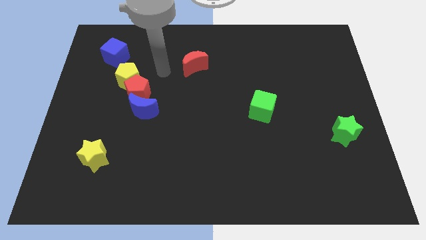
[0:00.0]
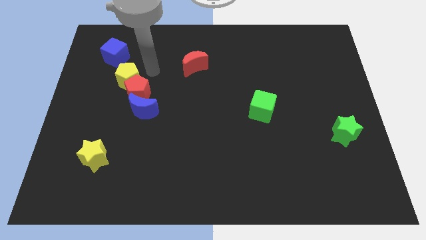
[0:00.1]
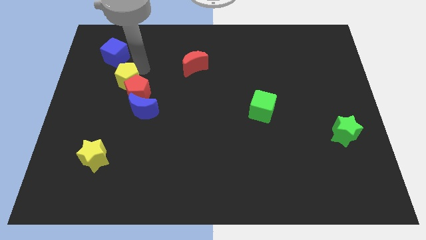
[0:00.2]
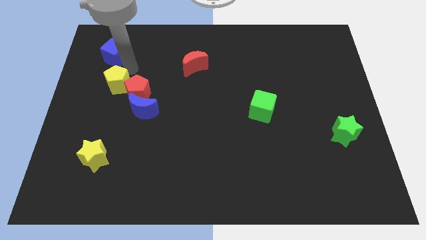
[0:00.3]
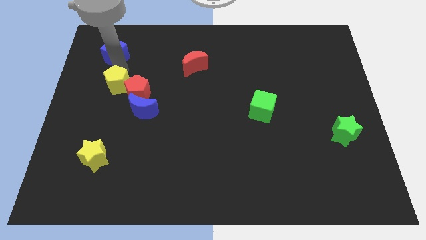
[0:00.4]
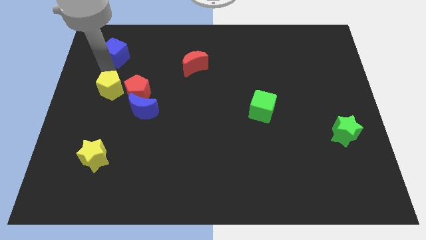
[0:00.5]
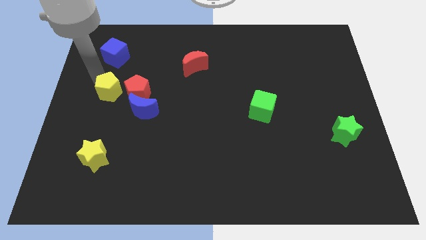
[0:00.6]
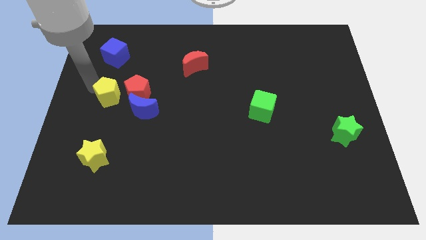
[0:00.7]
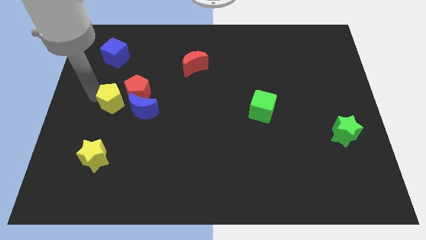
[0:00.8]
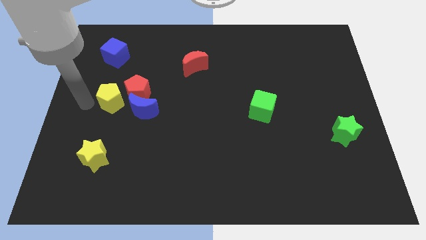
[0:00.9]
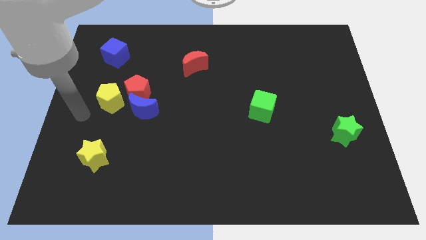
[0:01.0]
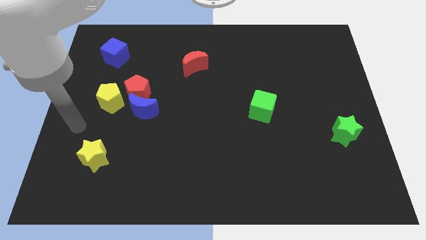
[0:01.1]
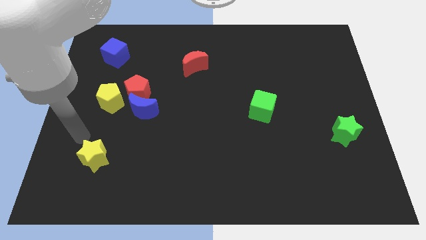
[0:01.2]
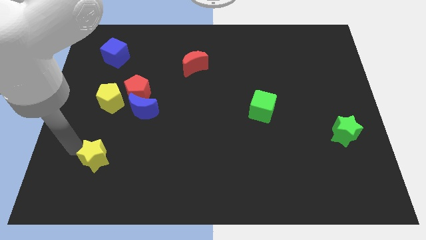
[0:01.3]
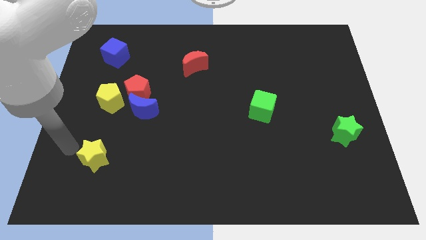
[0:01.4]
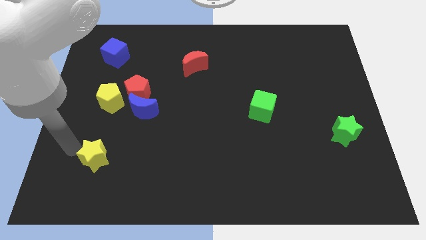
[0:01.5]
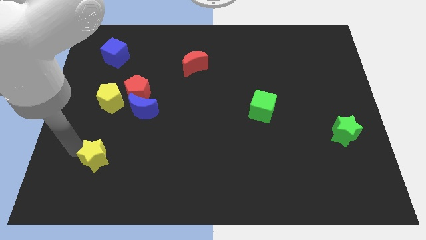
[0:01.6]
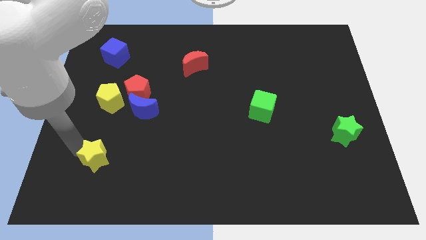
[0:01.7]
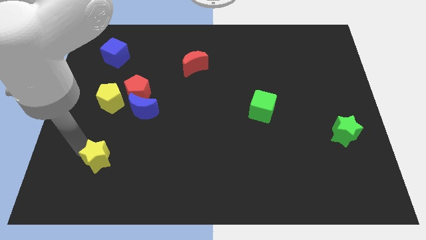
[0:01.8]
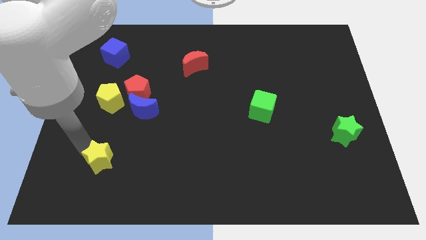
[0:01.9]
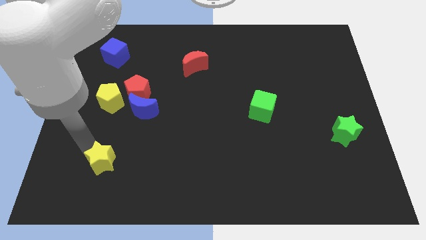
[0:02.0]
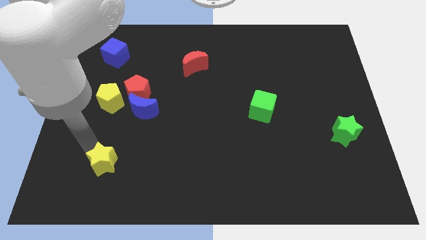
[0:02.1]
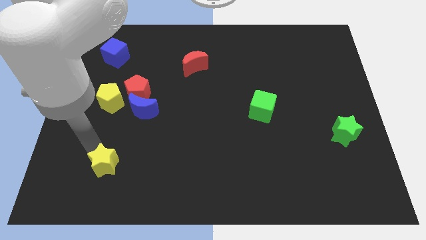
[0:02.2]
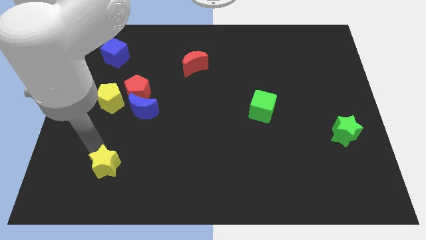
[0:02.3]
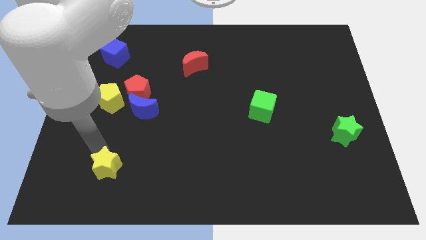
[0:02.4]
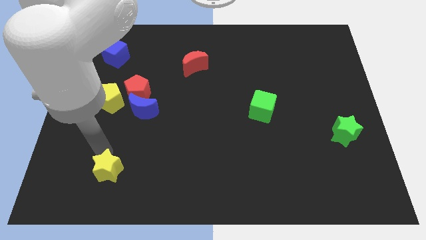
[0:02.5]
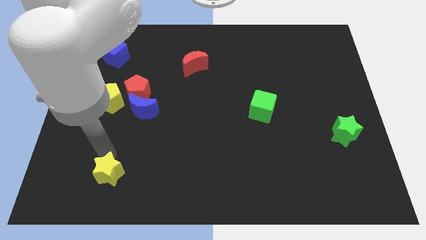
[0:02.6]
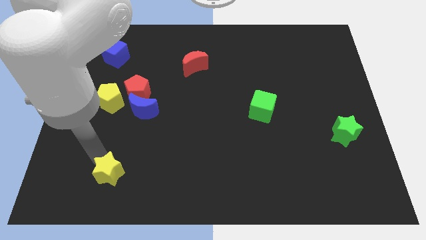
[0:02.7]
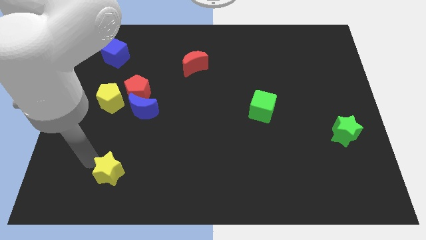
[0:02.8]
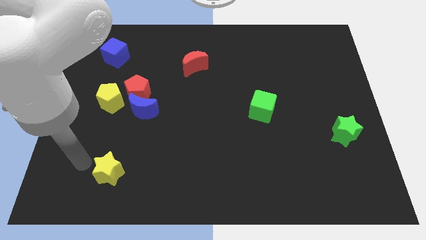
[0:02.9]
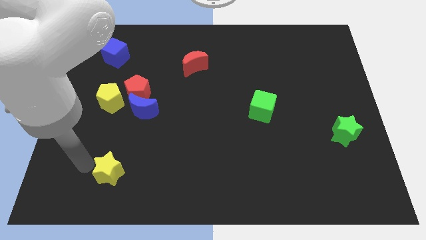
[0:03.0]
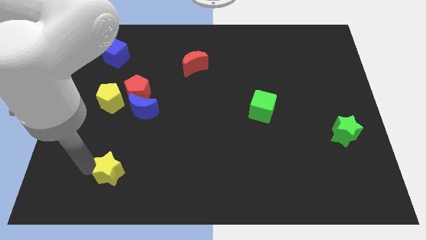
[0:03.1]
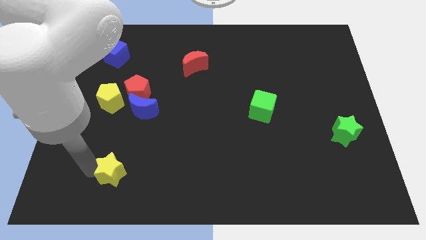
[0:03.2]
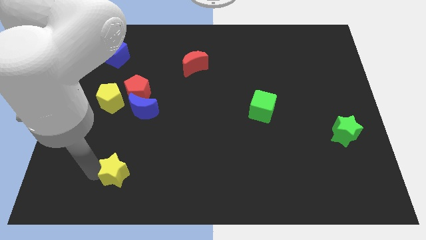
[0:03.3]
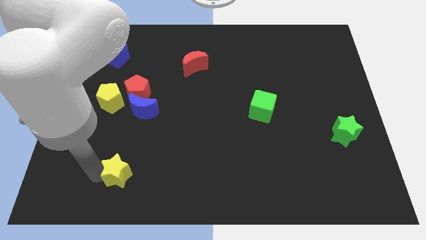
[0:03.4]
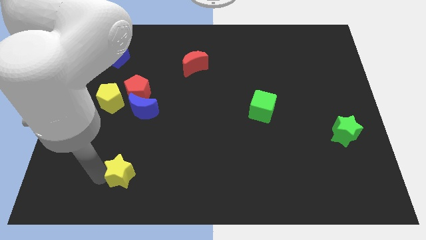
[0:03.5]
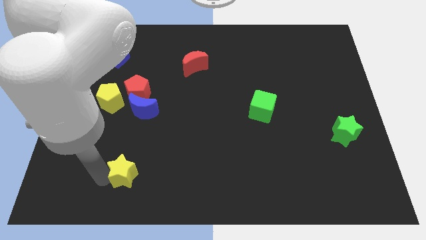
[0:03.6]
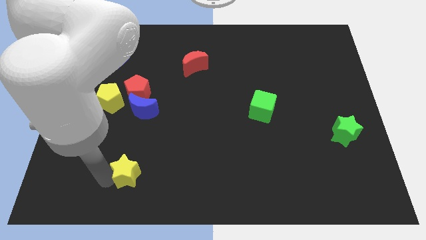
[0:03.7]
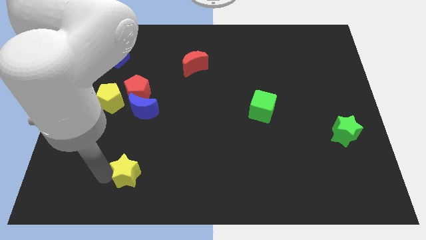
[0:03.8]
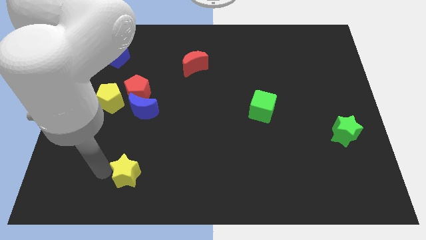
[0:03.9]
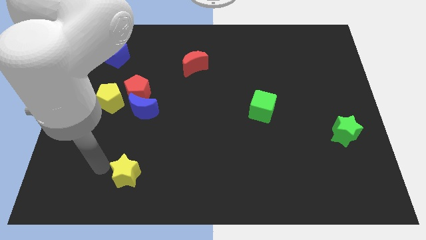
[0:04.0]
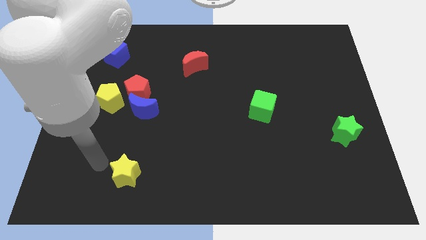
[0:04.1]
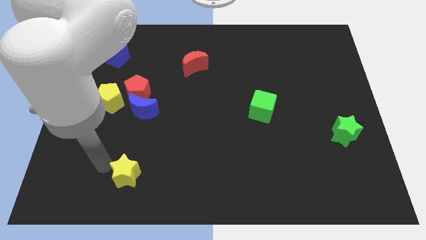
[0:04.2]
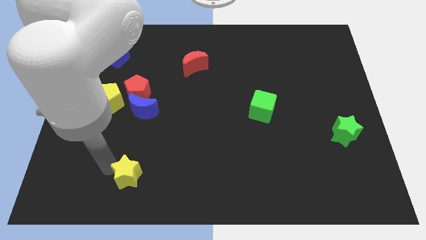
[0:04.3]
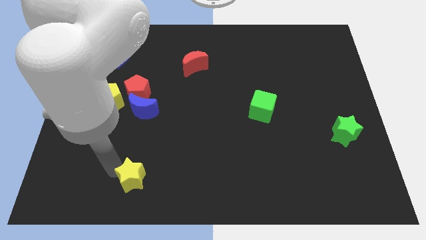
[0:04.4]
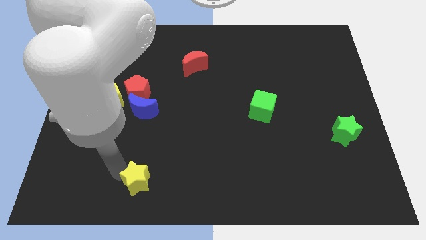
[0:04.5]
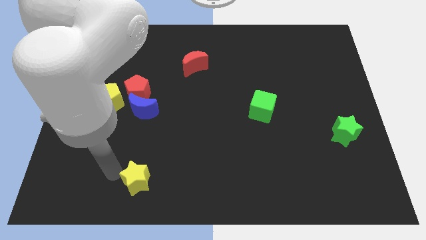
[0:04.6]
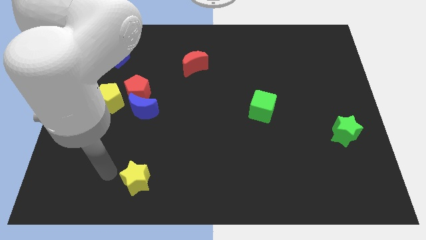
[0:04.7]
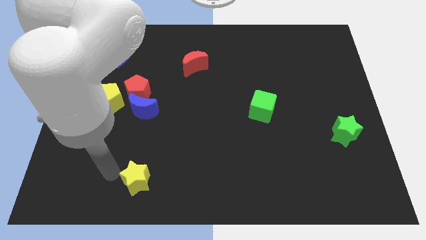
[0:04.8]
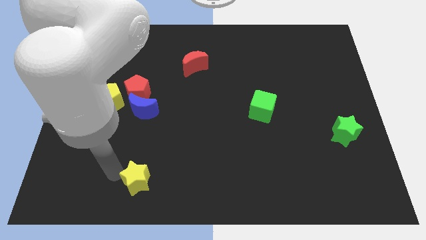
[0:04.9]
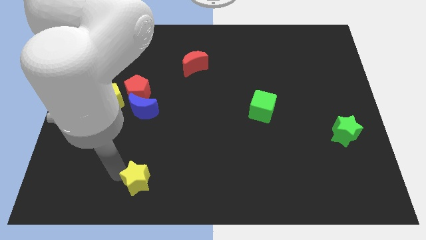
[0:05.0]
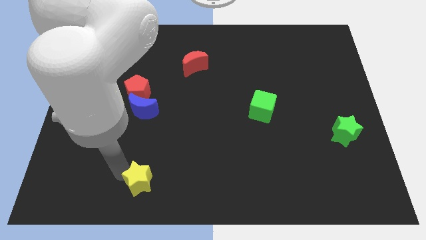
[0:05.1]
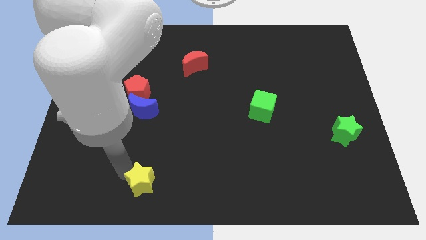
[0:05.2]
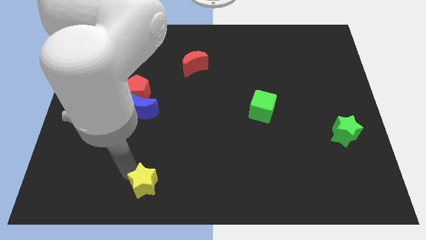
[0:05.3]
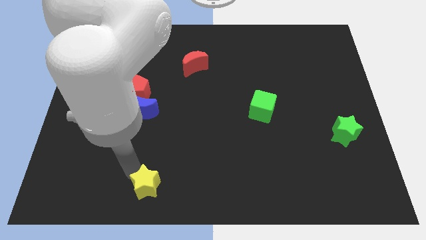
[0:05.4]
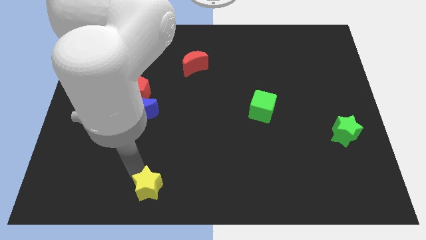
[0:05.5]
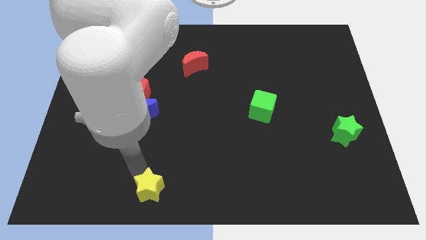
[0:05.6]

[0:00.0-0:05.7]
move the yellow star to the bottom side
